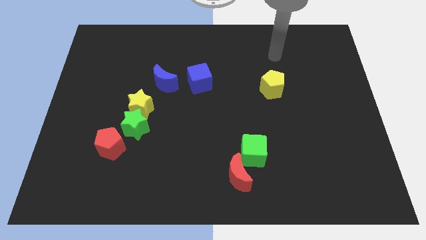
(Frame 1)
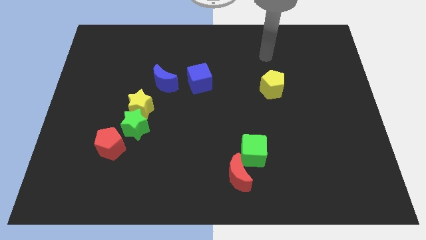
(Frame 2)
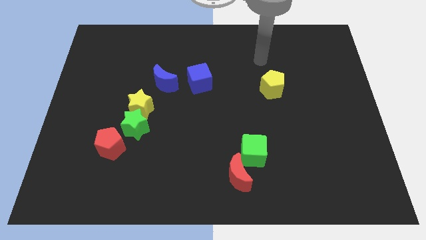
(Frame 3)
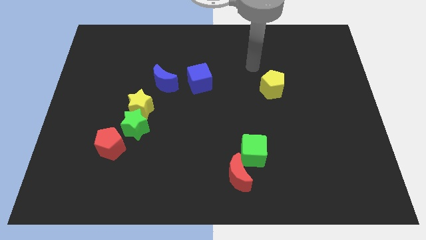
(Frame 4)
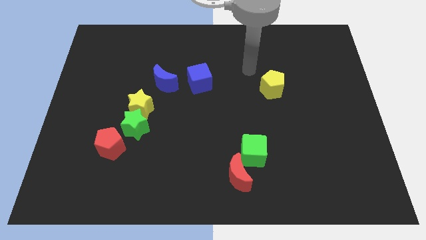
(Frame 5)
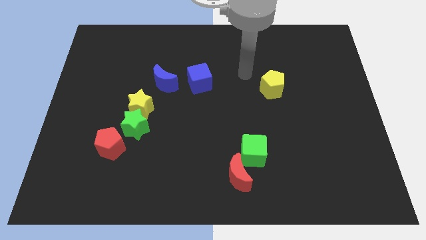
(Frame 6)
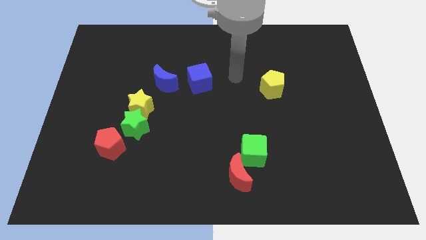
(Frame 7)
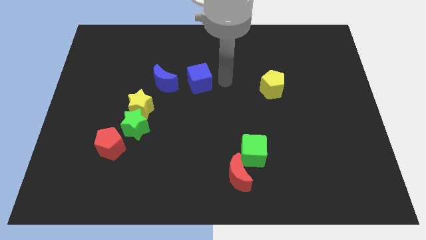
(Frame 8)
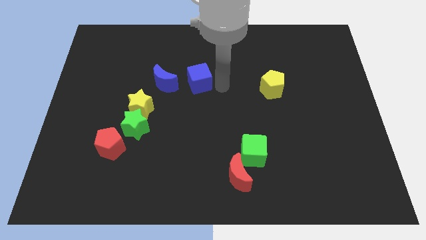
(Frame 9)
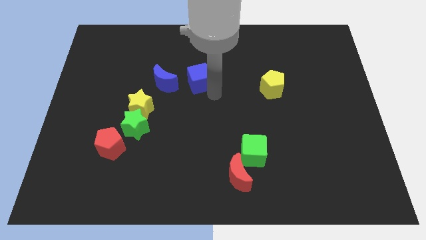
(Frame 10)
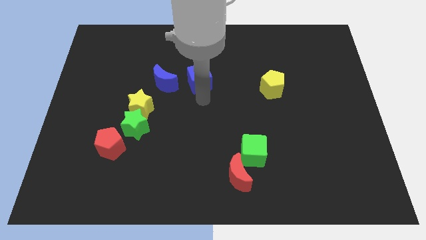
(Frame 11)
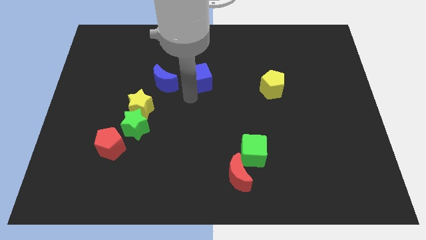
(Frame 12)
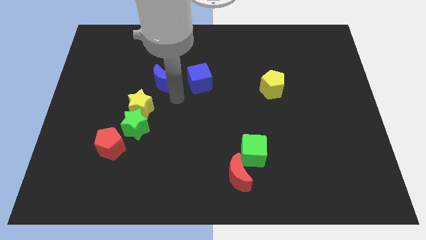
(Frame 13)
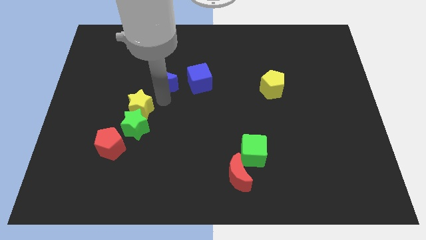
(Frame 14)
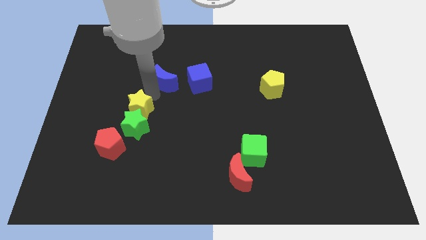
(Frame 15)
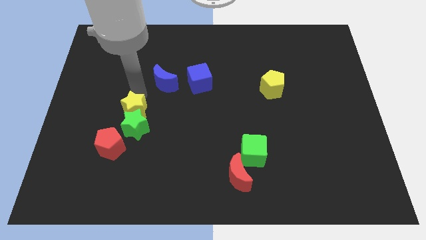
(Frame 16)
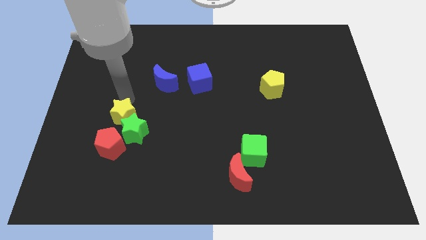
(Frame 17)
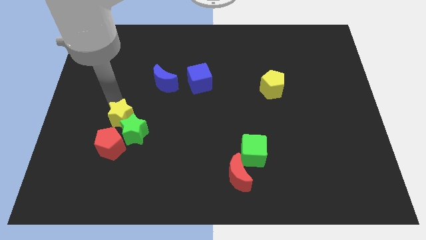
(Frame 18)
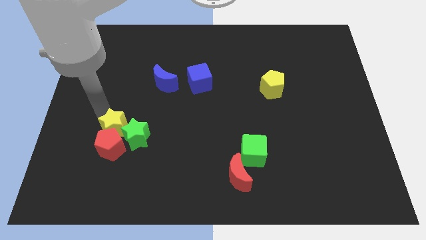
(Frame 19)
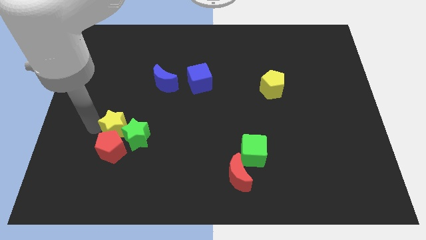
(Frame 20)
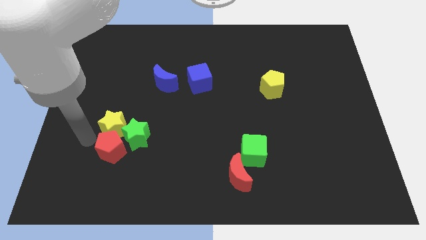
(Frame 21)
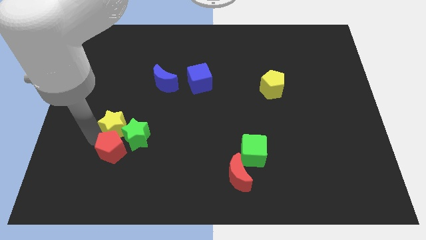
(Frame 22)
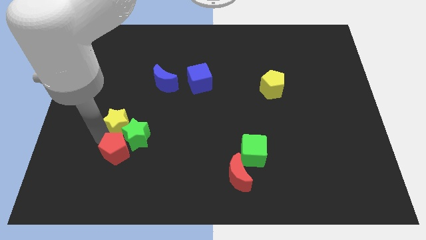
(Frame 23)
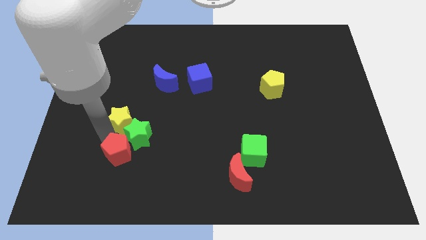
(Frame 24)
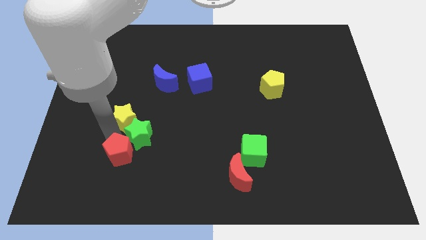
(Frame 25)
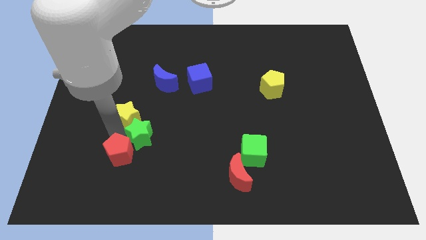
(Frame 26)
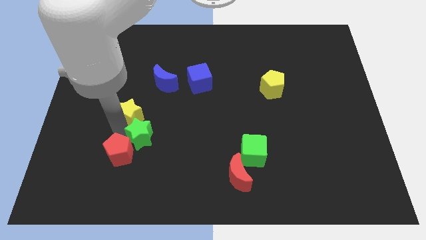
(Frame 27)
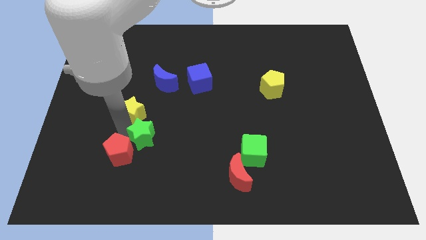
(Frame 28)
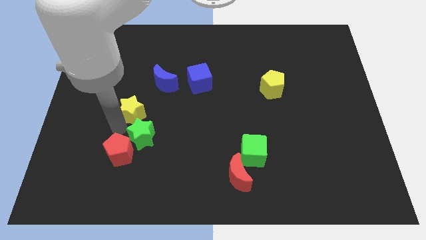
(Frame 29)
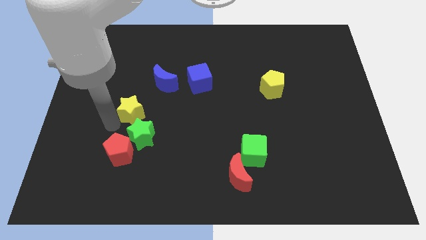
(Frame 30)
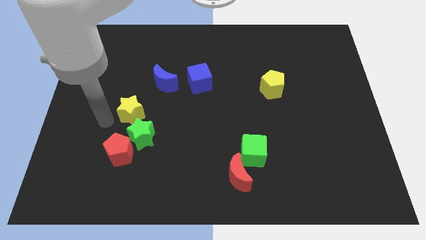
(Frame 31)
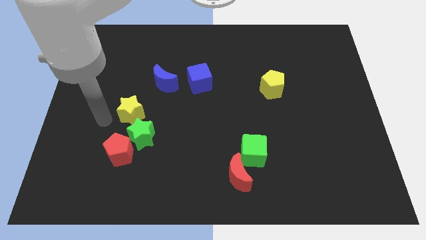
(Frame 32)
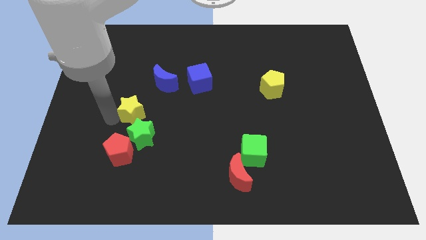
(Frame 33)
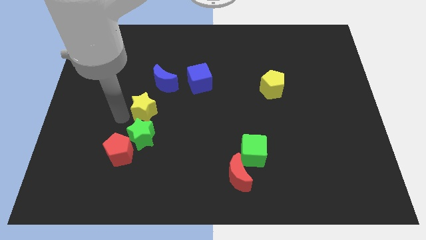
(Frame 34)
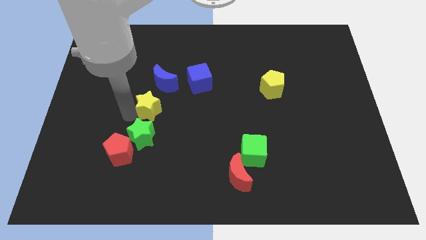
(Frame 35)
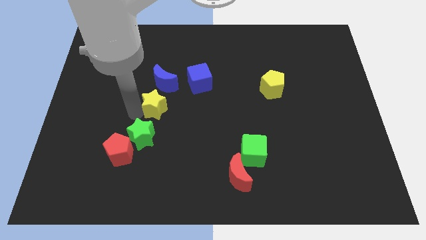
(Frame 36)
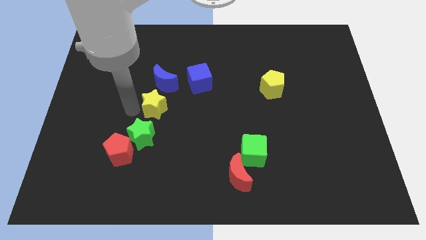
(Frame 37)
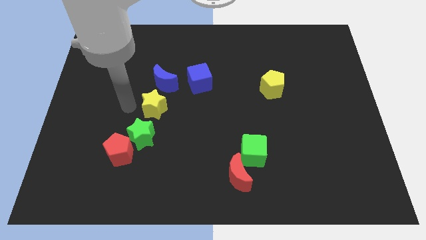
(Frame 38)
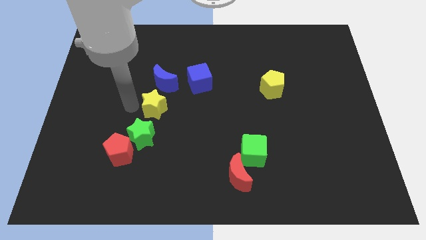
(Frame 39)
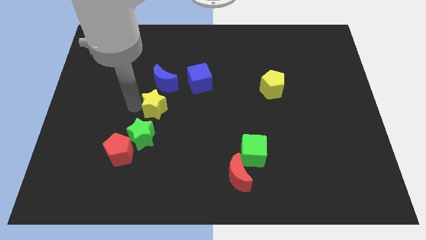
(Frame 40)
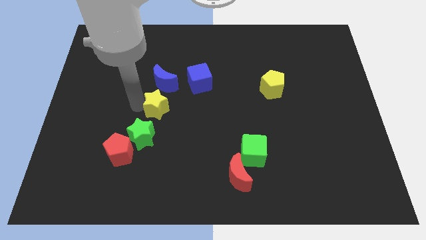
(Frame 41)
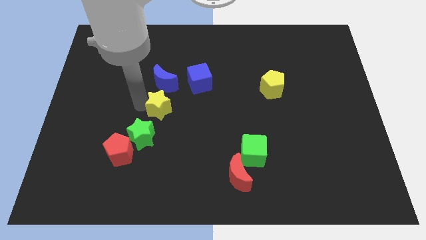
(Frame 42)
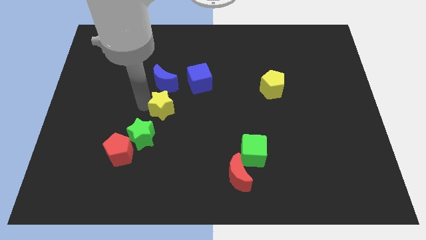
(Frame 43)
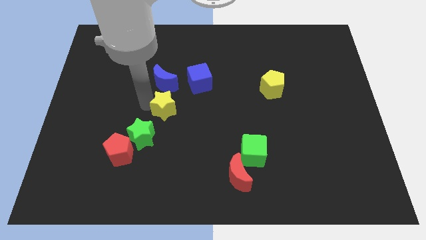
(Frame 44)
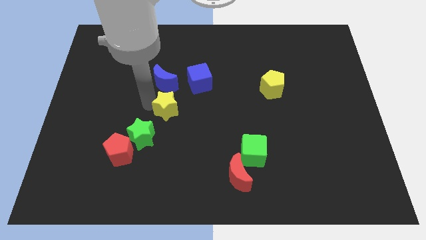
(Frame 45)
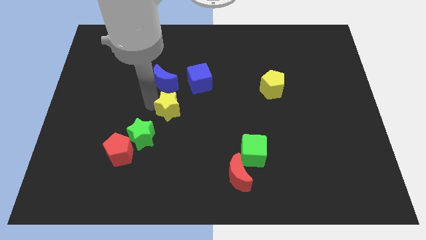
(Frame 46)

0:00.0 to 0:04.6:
push the yellow star a bit to the right

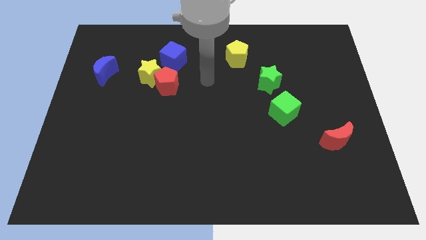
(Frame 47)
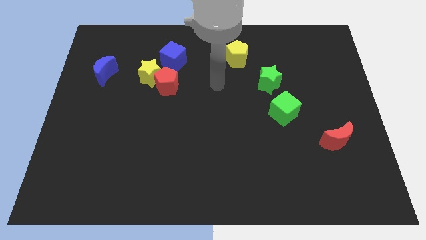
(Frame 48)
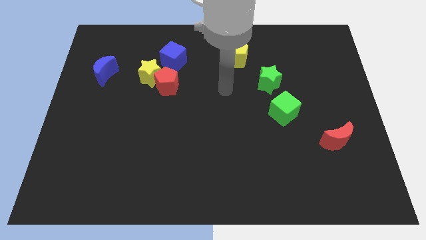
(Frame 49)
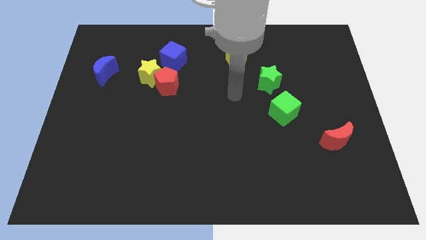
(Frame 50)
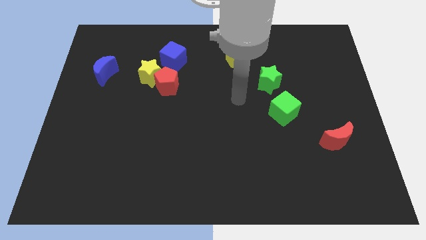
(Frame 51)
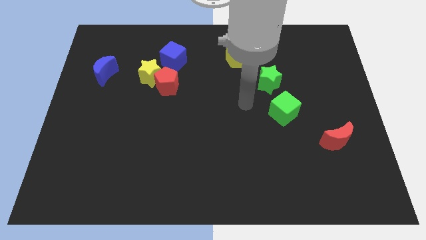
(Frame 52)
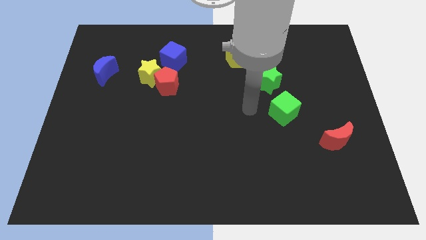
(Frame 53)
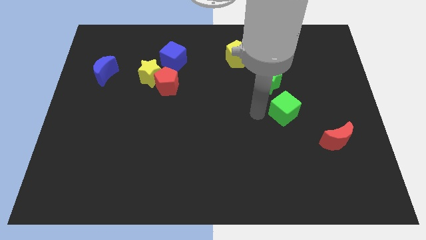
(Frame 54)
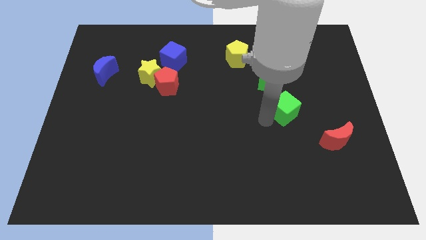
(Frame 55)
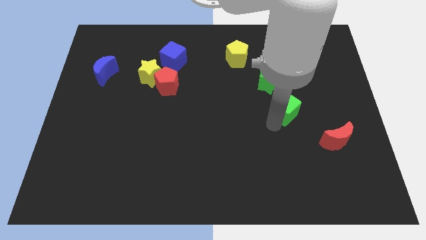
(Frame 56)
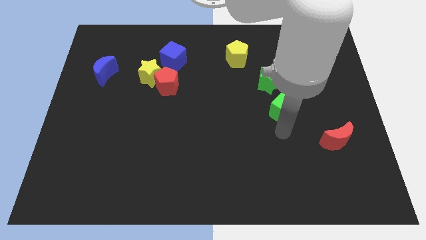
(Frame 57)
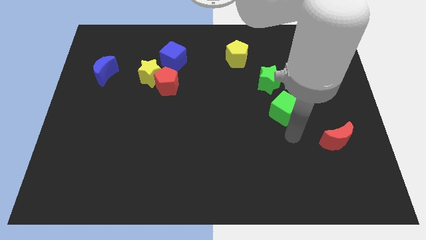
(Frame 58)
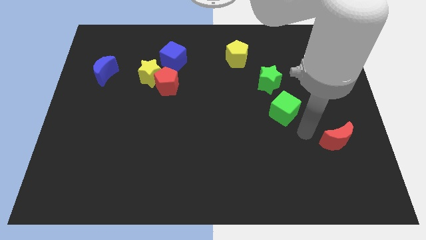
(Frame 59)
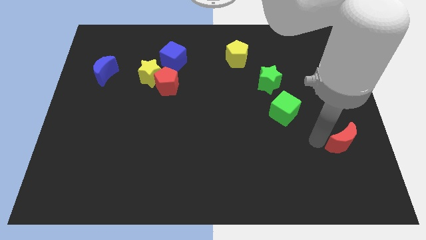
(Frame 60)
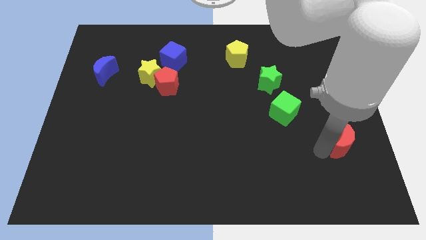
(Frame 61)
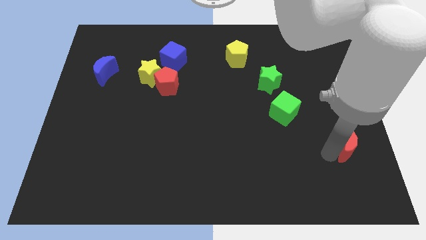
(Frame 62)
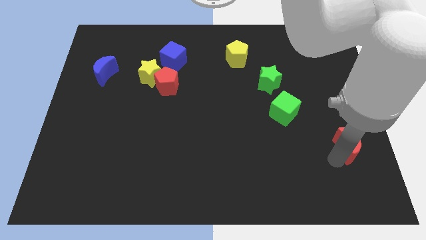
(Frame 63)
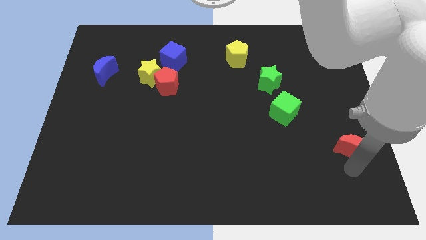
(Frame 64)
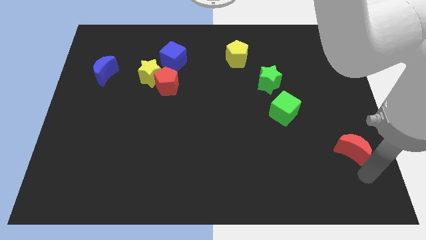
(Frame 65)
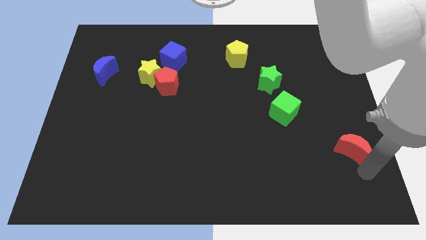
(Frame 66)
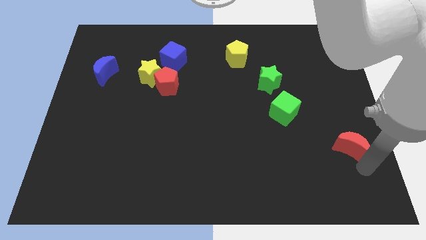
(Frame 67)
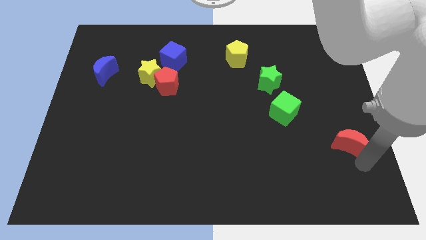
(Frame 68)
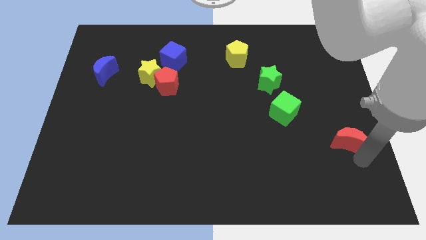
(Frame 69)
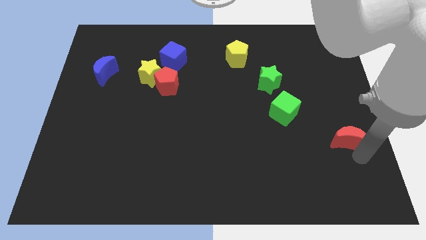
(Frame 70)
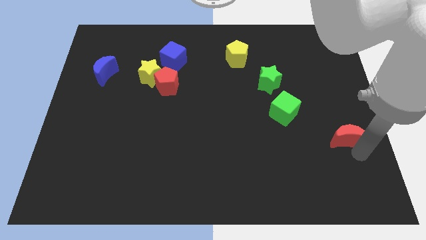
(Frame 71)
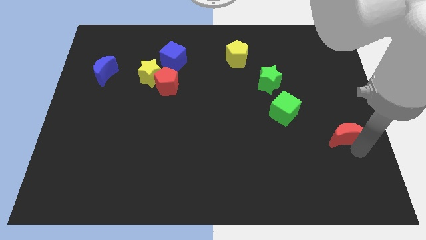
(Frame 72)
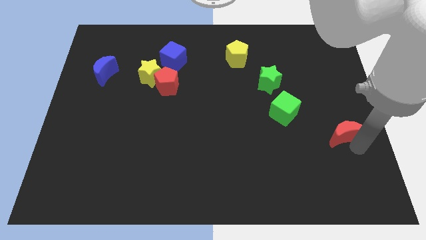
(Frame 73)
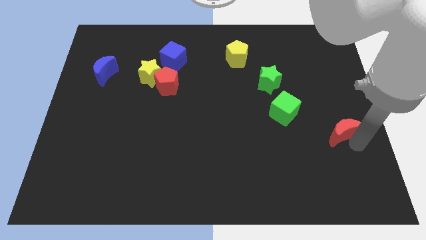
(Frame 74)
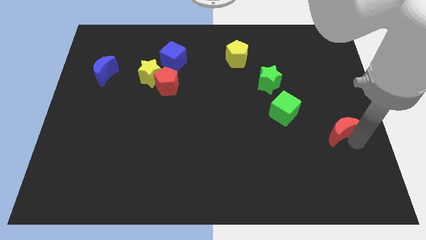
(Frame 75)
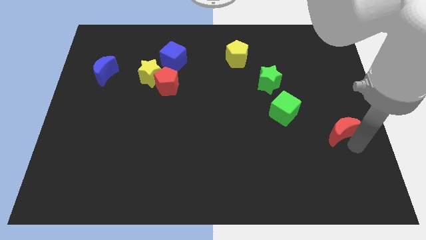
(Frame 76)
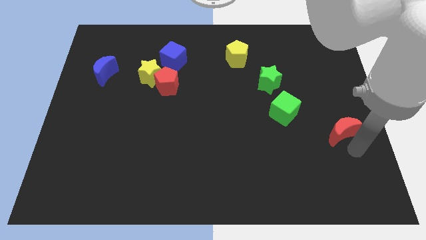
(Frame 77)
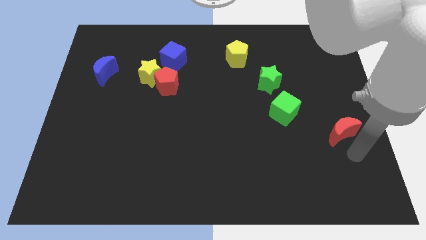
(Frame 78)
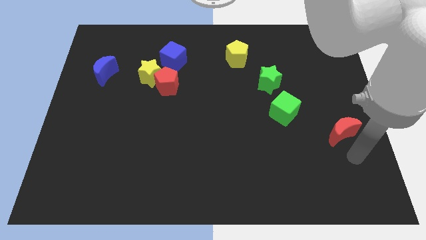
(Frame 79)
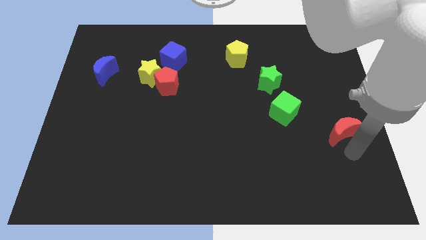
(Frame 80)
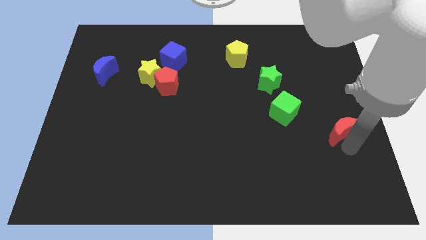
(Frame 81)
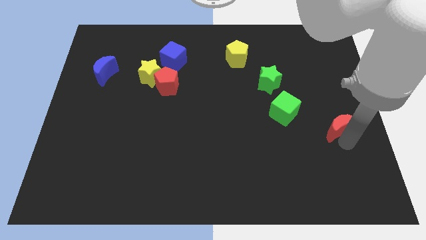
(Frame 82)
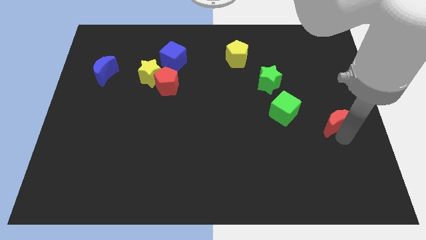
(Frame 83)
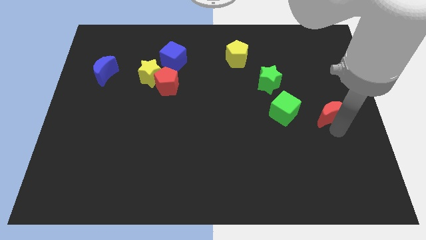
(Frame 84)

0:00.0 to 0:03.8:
slightly push the red moon up
